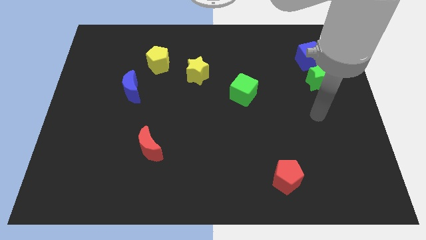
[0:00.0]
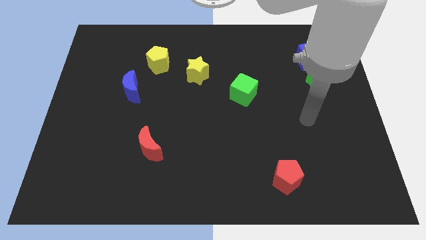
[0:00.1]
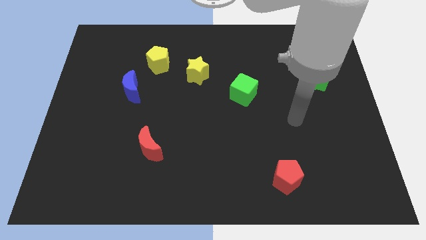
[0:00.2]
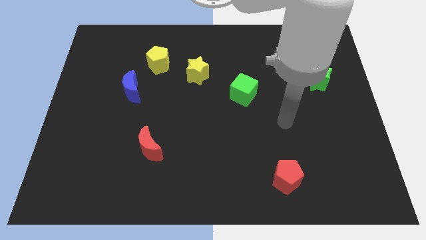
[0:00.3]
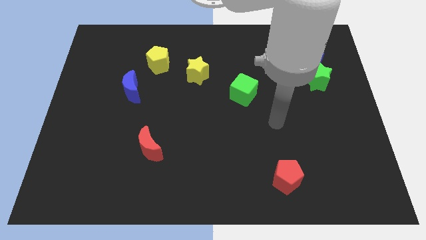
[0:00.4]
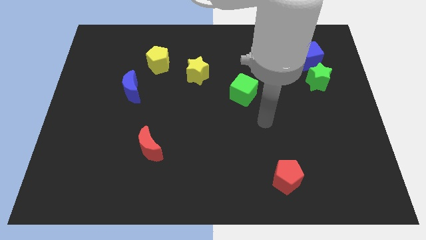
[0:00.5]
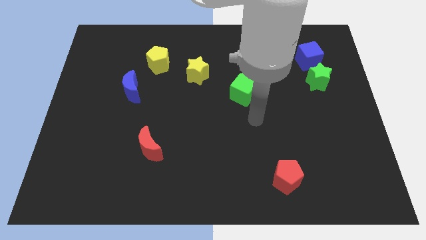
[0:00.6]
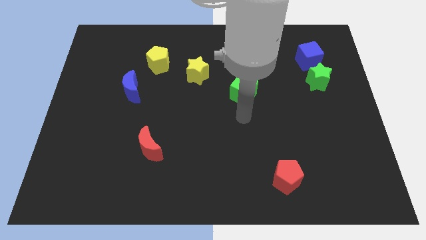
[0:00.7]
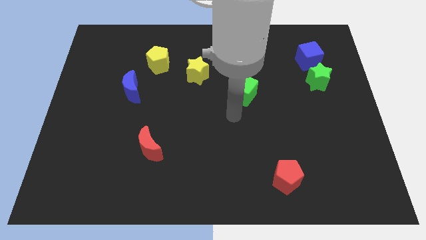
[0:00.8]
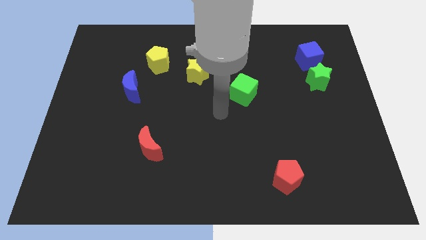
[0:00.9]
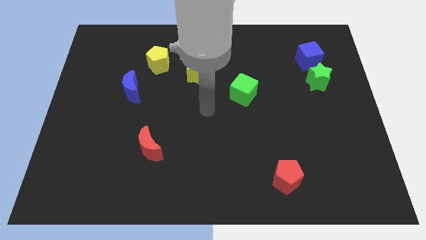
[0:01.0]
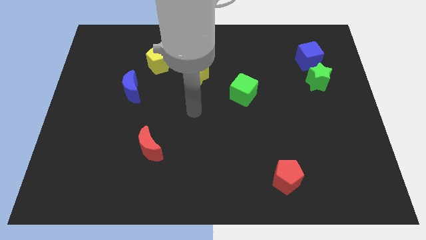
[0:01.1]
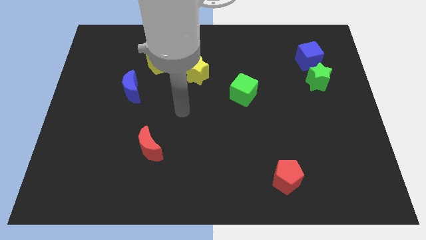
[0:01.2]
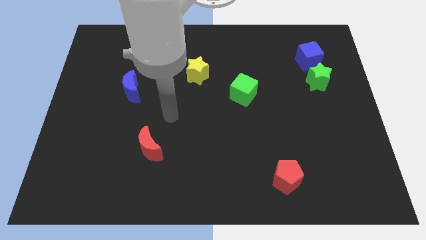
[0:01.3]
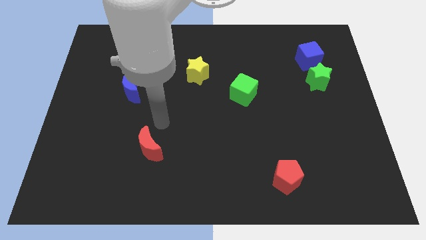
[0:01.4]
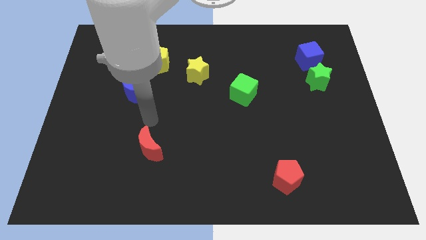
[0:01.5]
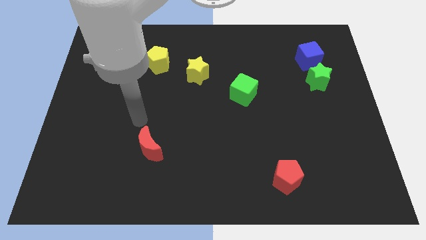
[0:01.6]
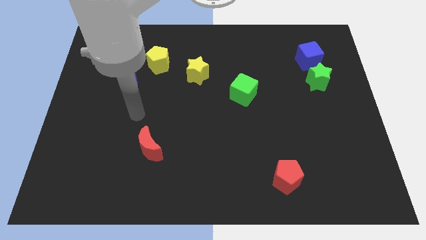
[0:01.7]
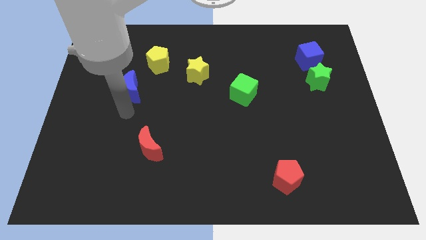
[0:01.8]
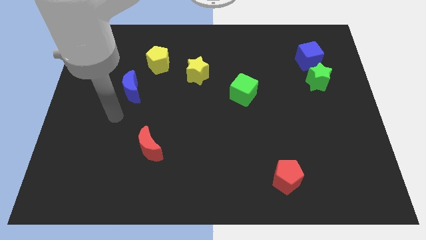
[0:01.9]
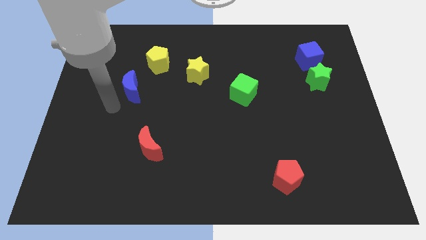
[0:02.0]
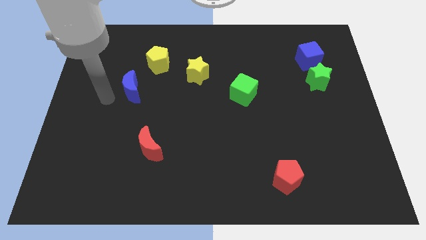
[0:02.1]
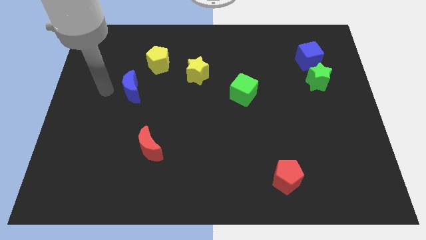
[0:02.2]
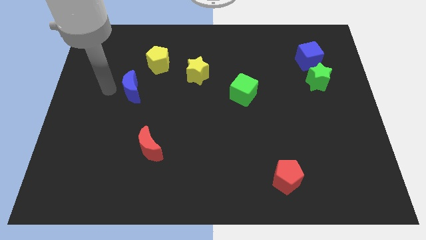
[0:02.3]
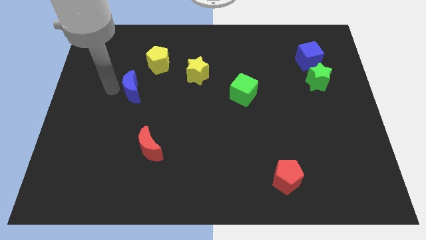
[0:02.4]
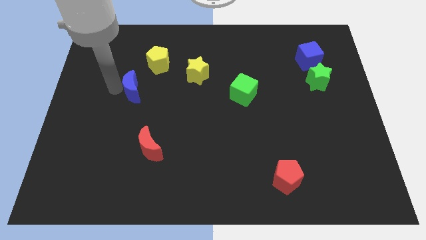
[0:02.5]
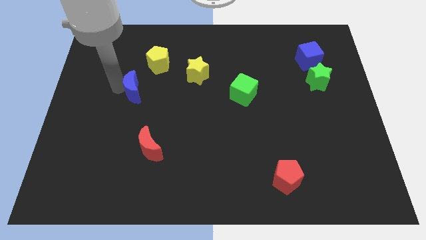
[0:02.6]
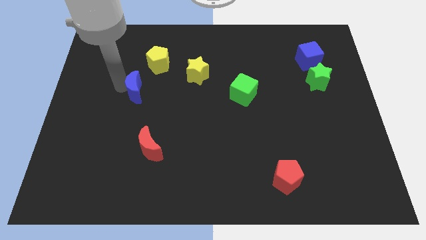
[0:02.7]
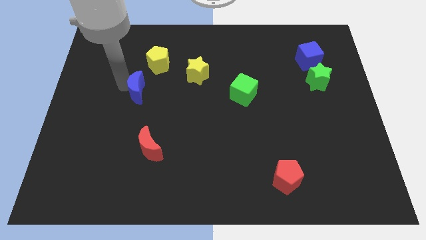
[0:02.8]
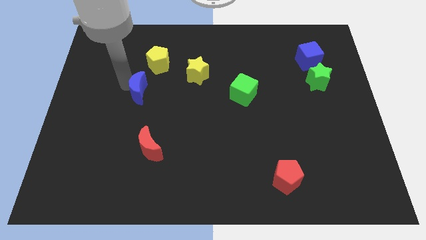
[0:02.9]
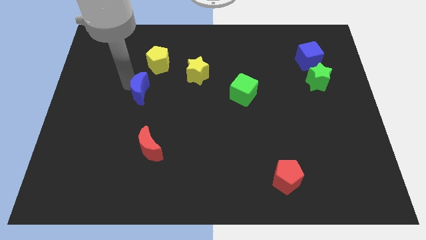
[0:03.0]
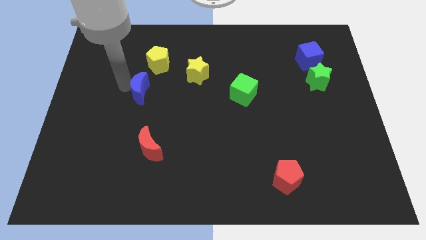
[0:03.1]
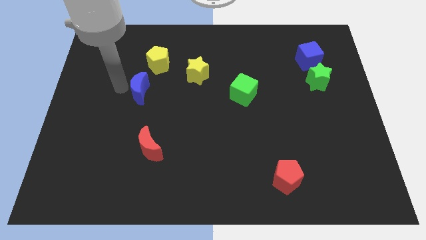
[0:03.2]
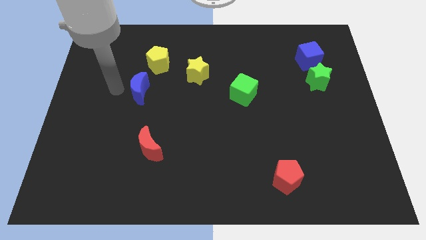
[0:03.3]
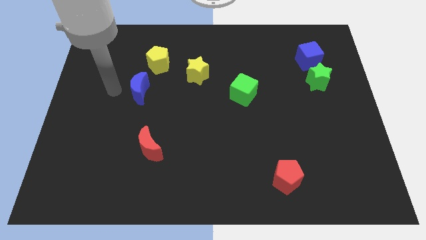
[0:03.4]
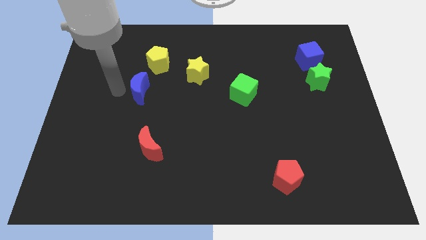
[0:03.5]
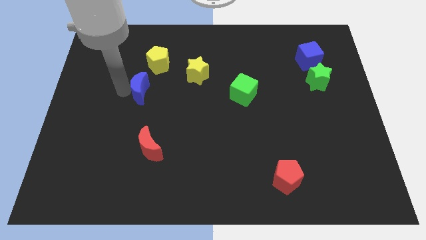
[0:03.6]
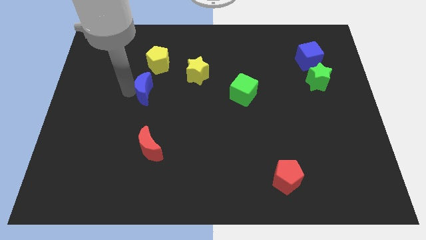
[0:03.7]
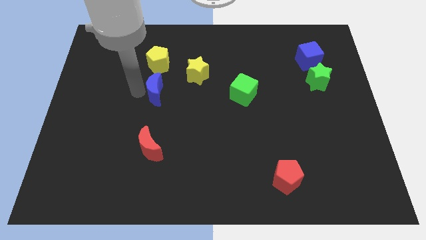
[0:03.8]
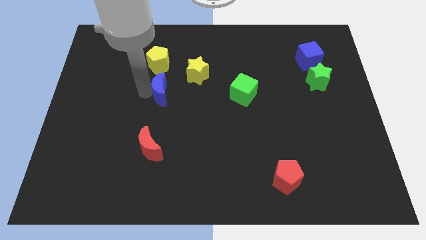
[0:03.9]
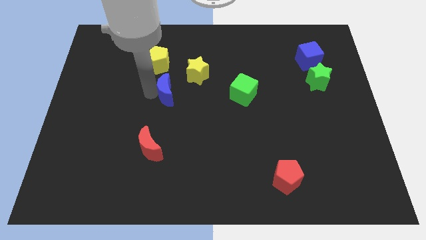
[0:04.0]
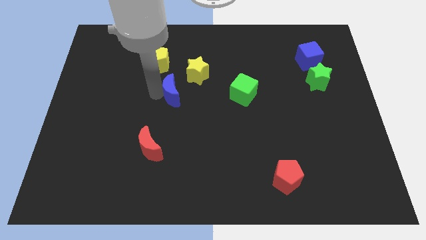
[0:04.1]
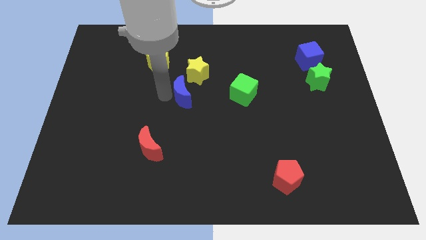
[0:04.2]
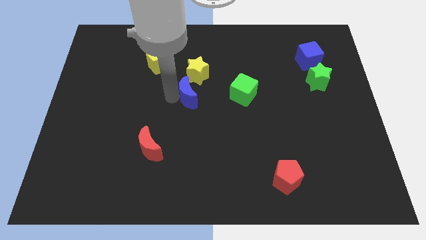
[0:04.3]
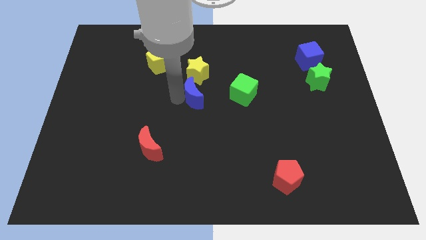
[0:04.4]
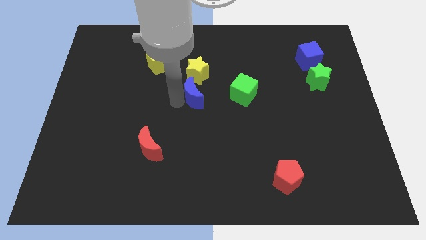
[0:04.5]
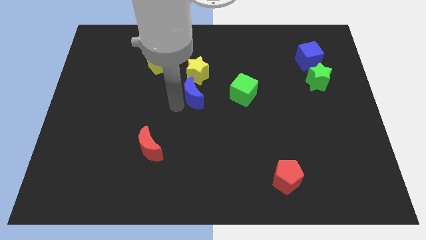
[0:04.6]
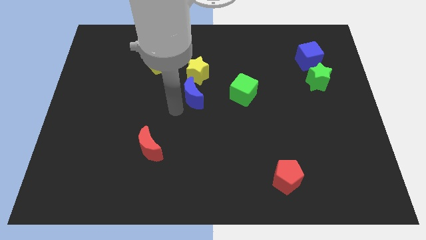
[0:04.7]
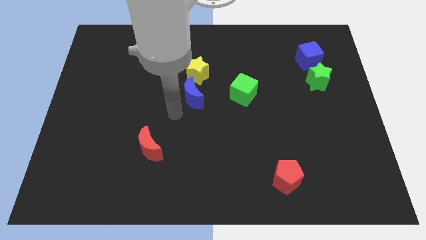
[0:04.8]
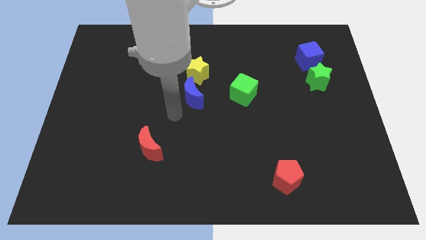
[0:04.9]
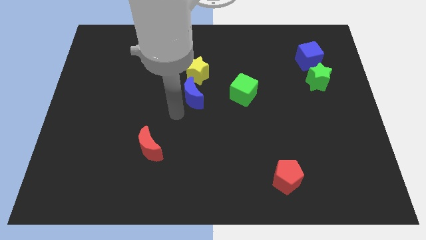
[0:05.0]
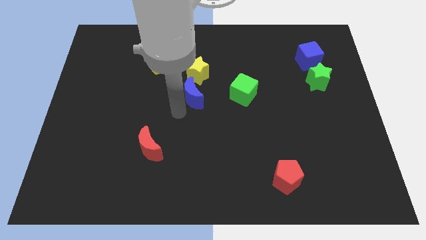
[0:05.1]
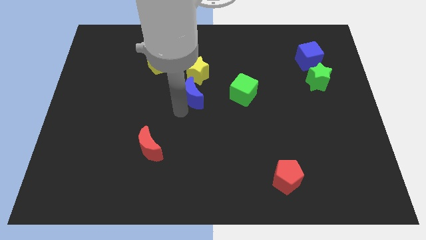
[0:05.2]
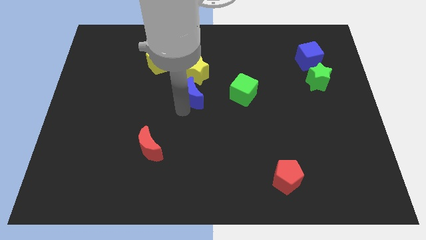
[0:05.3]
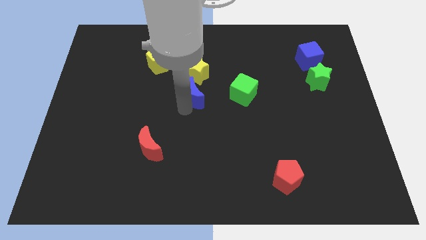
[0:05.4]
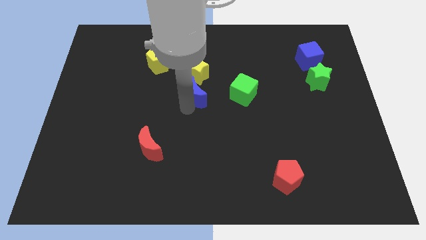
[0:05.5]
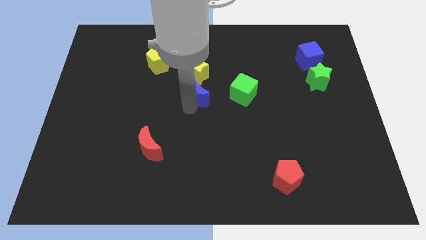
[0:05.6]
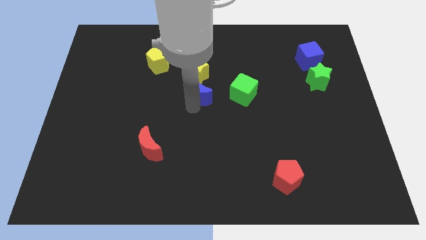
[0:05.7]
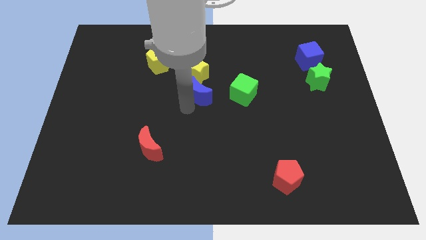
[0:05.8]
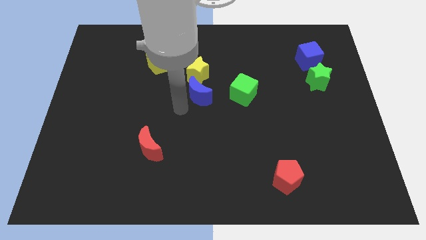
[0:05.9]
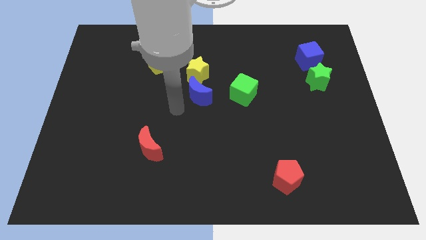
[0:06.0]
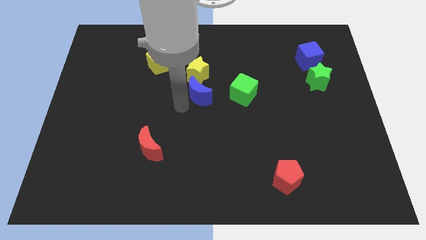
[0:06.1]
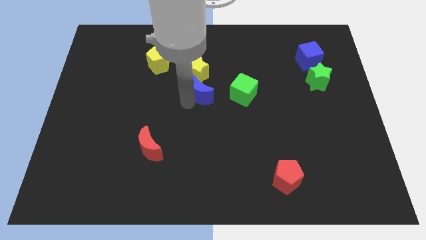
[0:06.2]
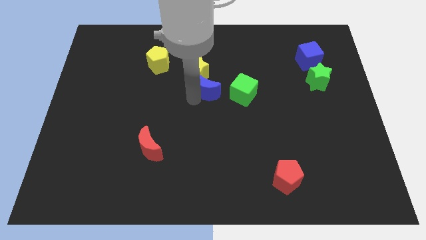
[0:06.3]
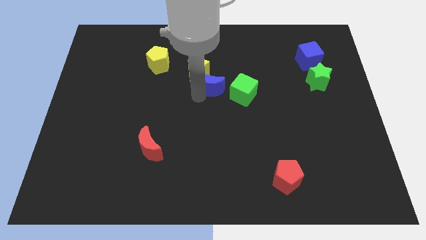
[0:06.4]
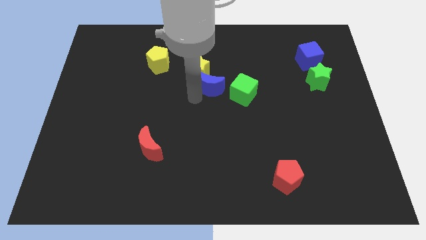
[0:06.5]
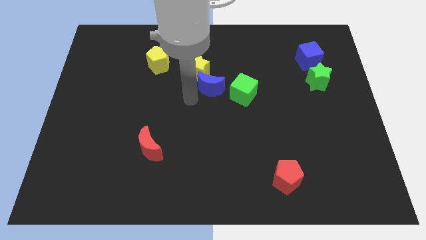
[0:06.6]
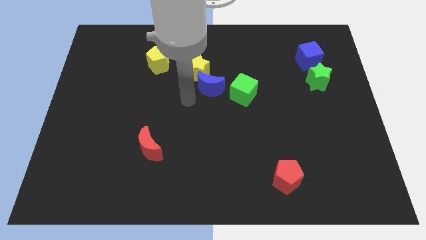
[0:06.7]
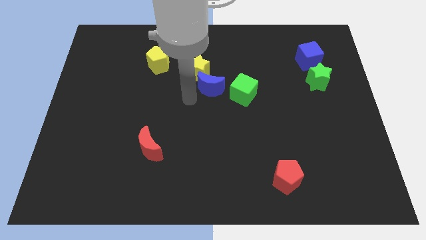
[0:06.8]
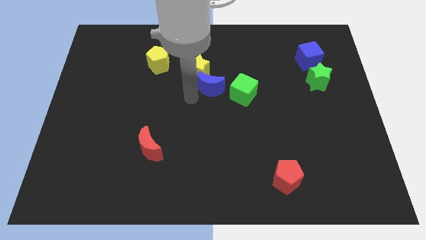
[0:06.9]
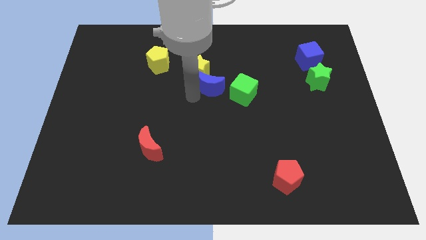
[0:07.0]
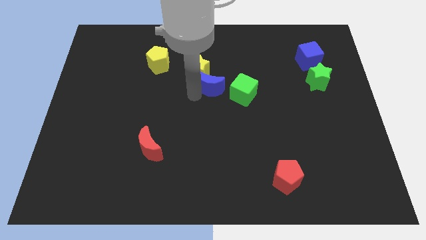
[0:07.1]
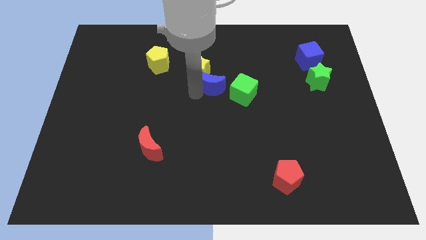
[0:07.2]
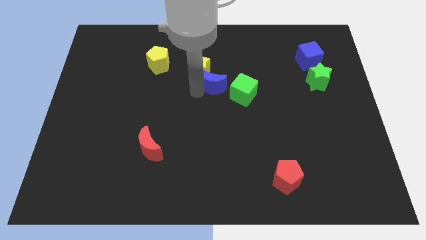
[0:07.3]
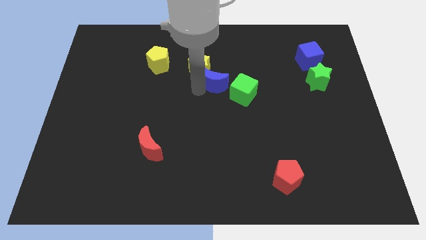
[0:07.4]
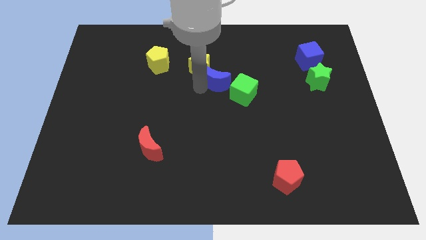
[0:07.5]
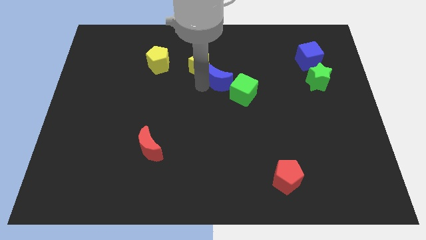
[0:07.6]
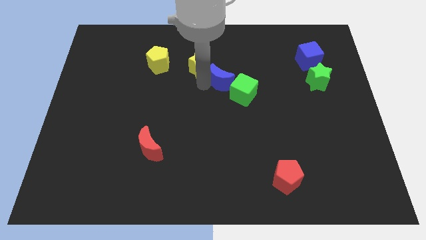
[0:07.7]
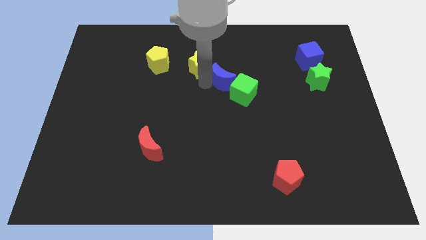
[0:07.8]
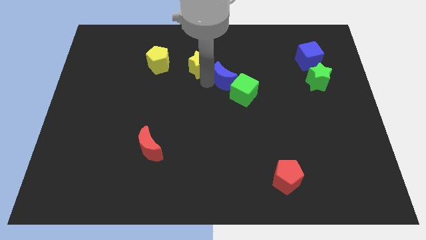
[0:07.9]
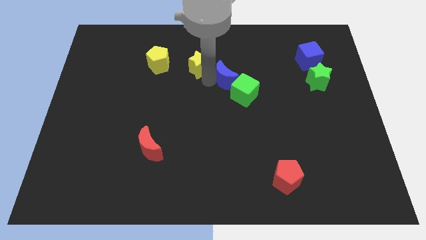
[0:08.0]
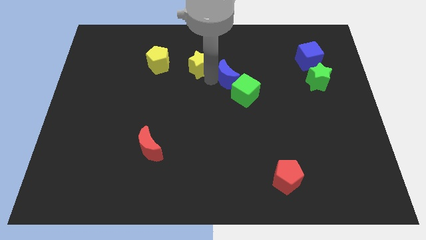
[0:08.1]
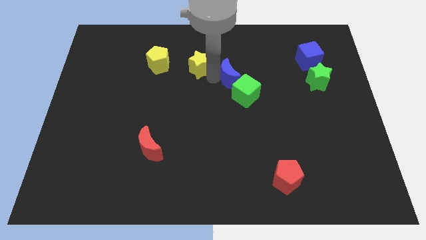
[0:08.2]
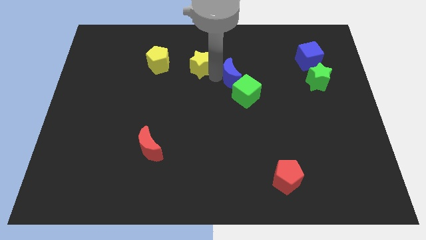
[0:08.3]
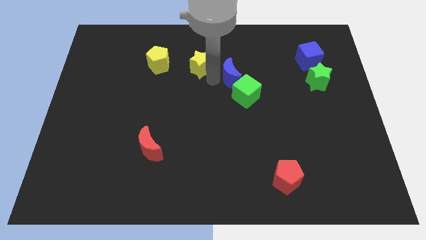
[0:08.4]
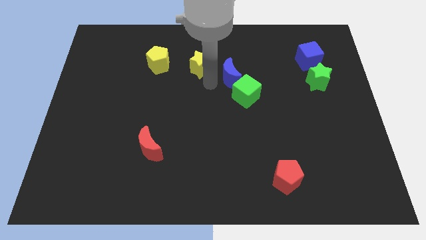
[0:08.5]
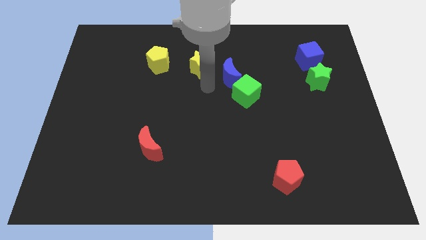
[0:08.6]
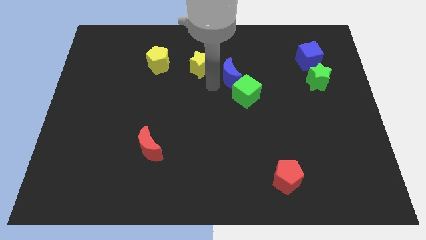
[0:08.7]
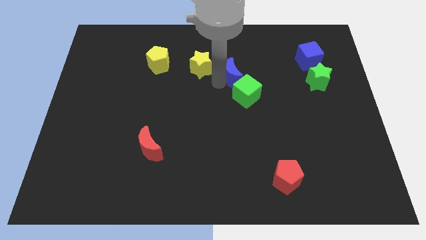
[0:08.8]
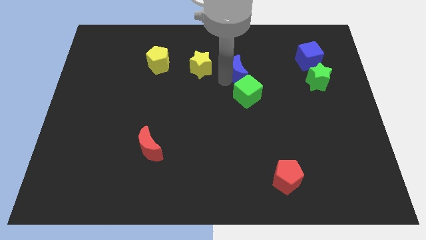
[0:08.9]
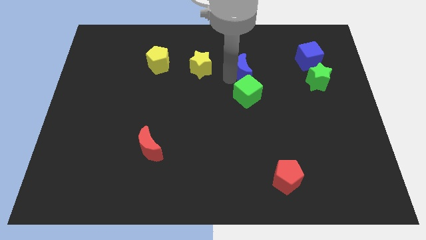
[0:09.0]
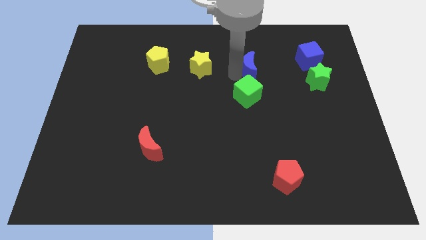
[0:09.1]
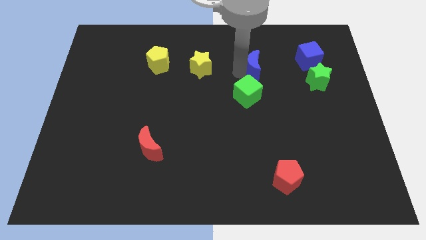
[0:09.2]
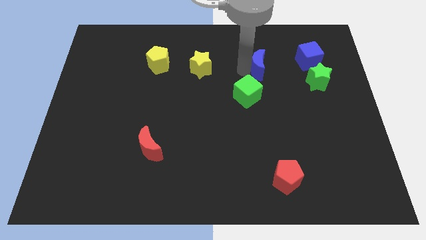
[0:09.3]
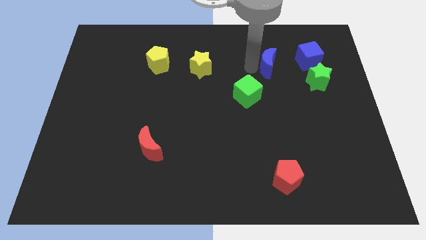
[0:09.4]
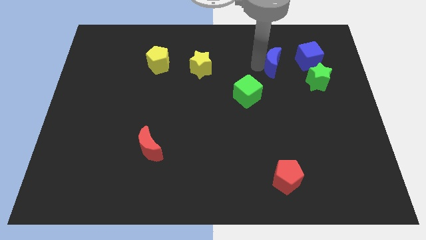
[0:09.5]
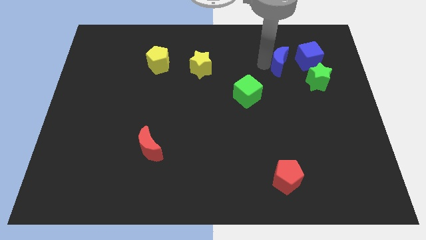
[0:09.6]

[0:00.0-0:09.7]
slide the blue moon to the bottom left side of the blue cube
